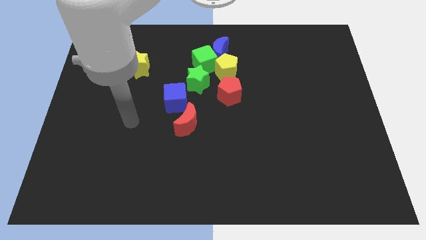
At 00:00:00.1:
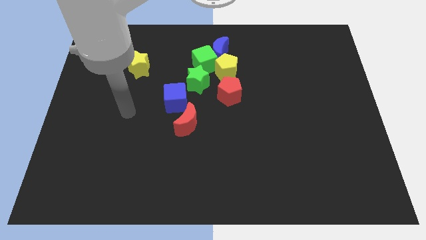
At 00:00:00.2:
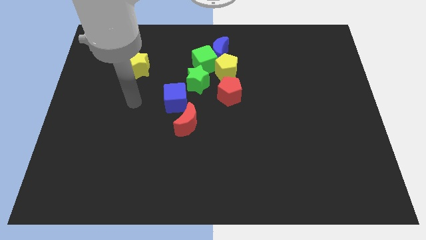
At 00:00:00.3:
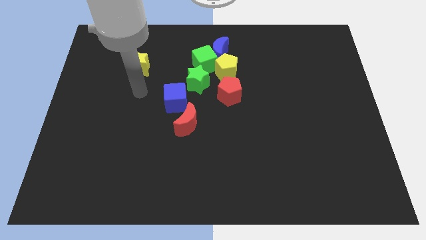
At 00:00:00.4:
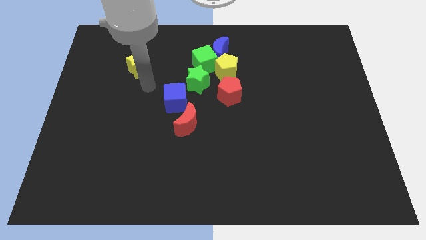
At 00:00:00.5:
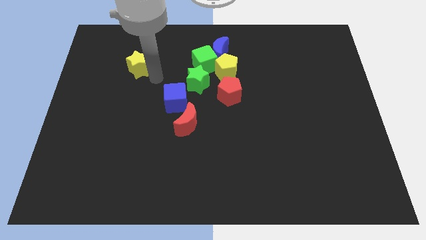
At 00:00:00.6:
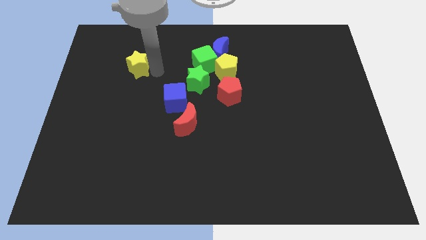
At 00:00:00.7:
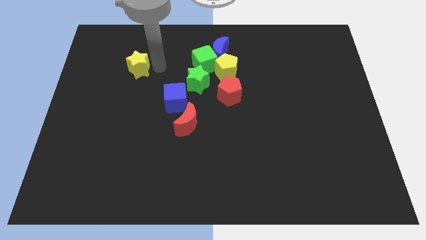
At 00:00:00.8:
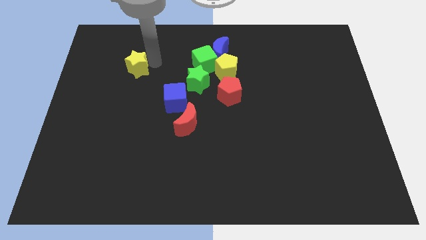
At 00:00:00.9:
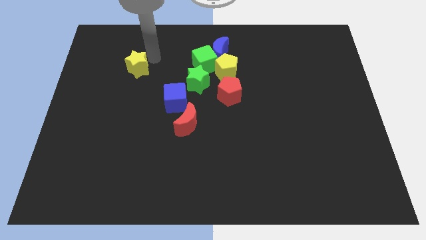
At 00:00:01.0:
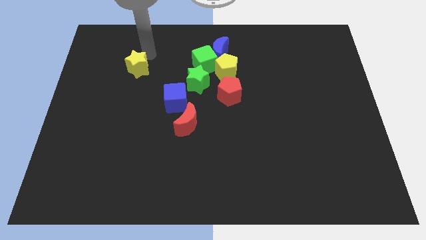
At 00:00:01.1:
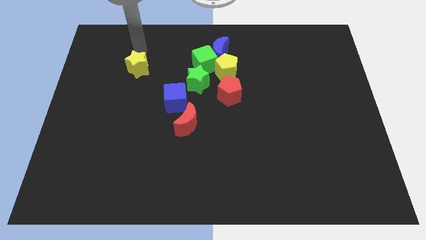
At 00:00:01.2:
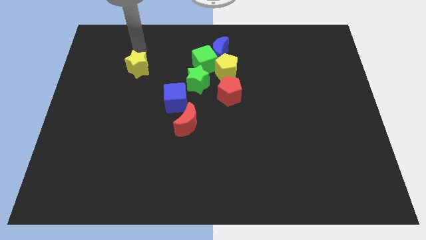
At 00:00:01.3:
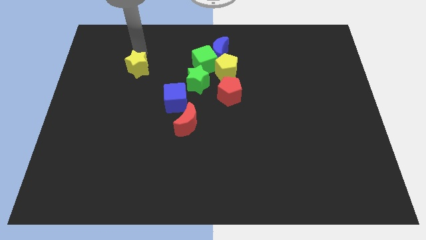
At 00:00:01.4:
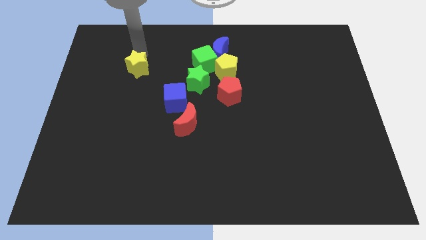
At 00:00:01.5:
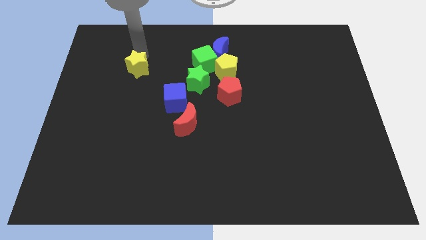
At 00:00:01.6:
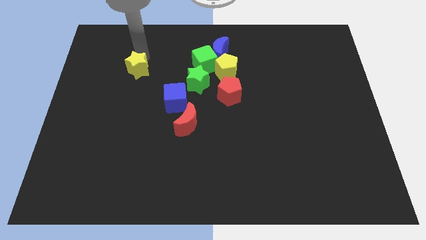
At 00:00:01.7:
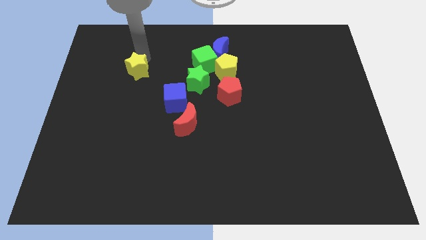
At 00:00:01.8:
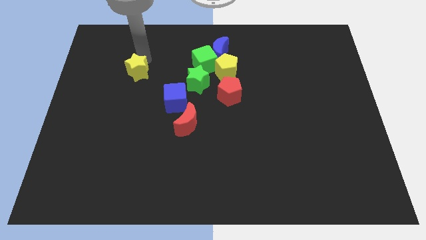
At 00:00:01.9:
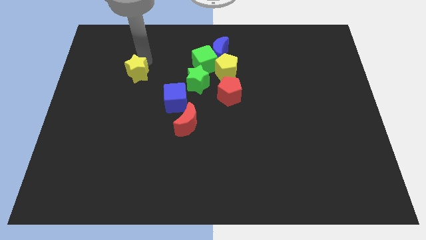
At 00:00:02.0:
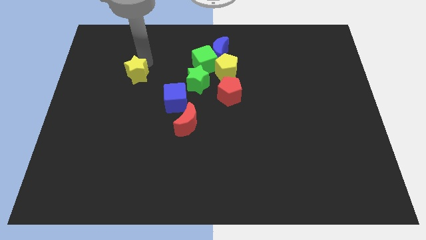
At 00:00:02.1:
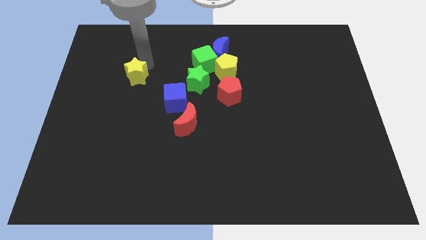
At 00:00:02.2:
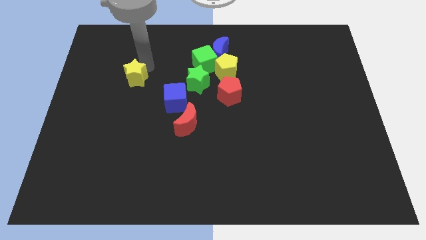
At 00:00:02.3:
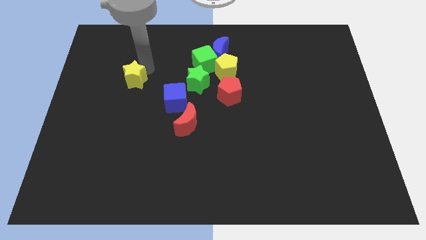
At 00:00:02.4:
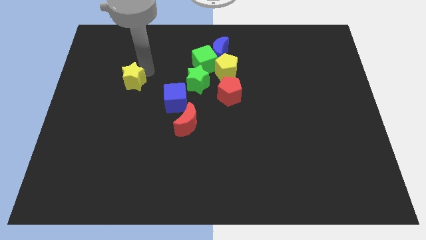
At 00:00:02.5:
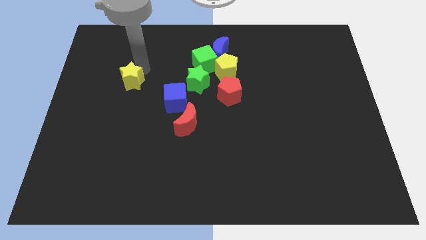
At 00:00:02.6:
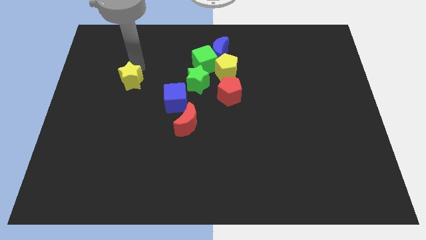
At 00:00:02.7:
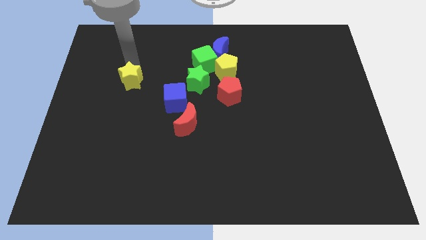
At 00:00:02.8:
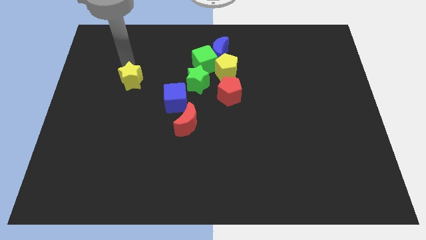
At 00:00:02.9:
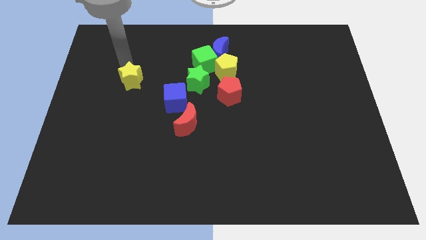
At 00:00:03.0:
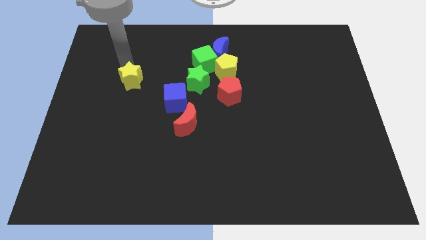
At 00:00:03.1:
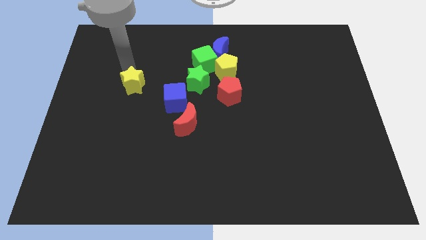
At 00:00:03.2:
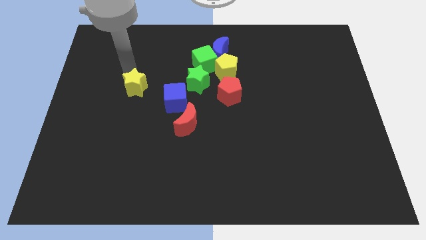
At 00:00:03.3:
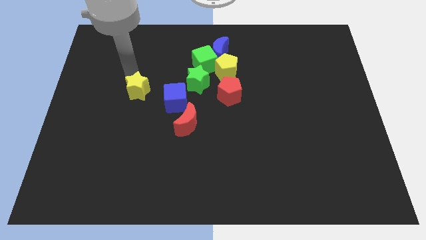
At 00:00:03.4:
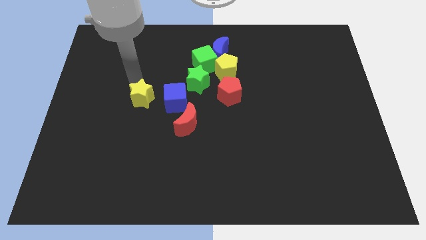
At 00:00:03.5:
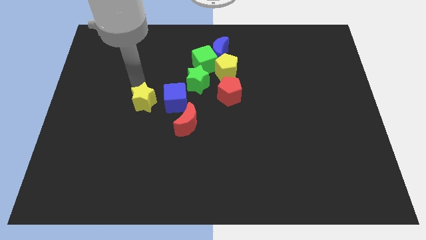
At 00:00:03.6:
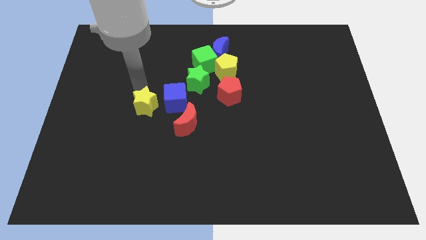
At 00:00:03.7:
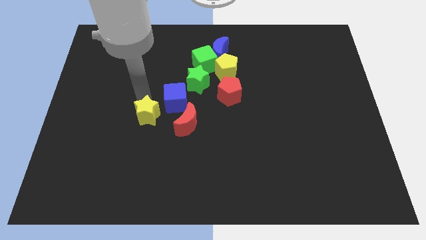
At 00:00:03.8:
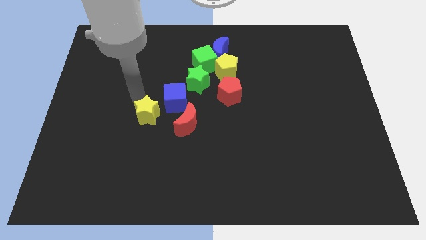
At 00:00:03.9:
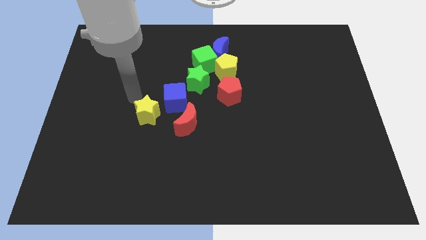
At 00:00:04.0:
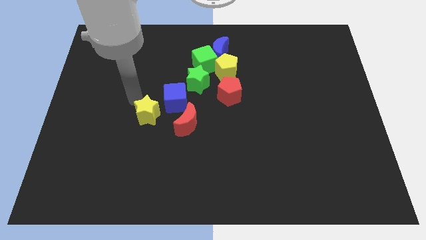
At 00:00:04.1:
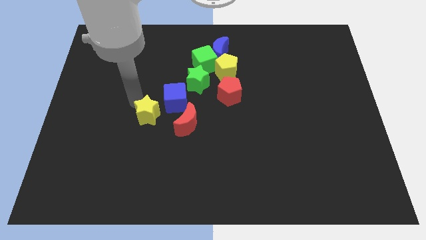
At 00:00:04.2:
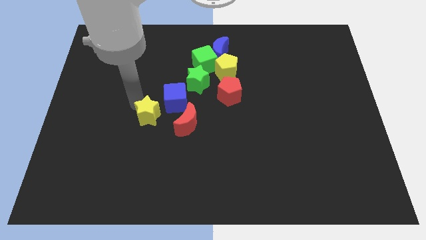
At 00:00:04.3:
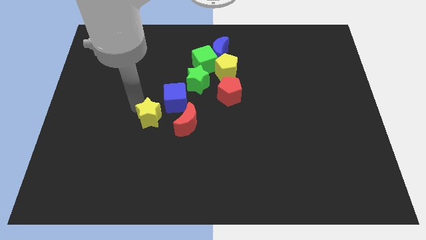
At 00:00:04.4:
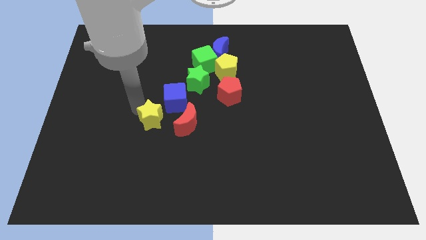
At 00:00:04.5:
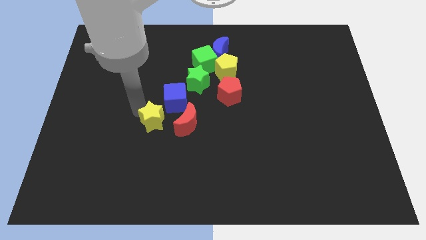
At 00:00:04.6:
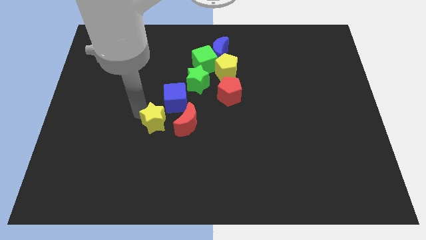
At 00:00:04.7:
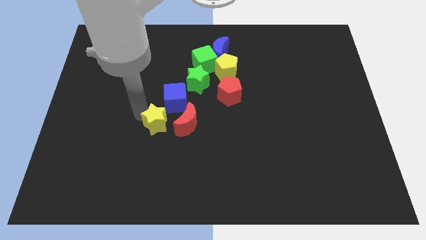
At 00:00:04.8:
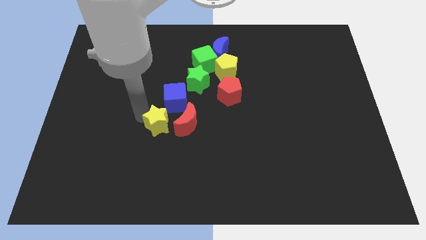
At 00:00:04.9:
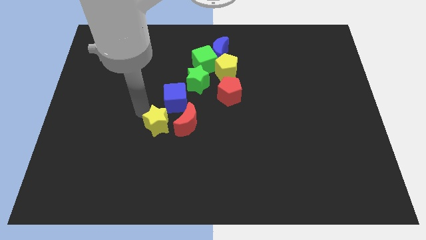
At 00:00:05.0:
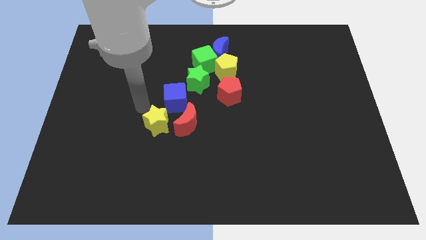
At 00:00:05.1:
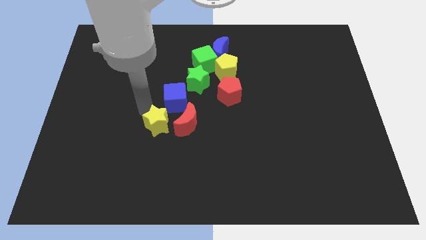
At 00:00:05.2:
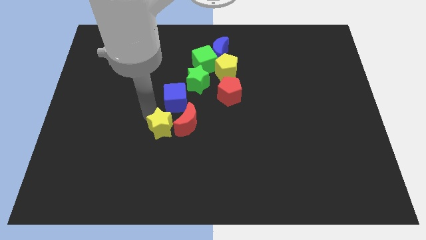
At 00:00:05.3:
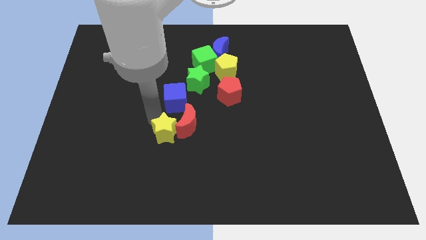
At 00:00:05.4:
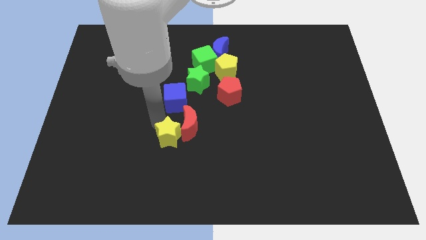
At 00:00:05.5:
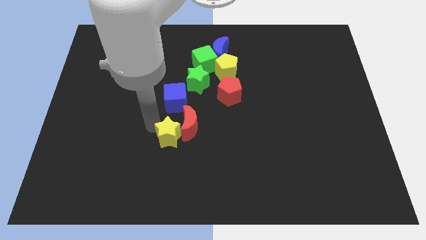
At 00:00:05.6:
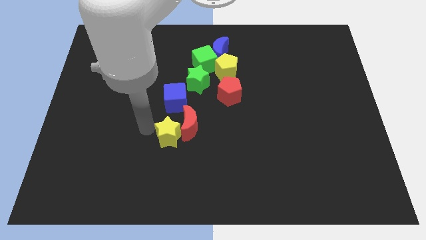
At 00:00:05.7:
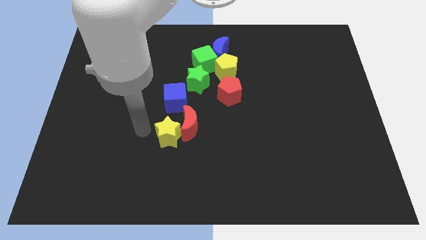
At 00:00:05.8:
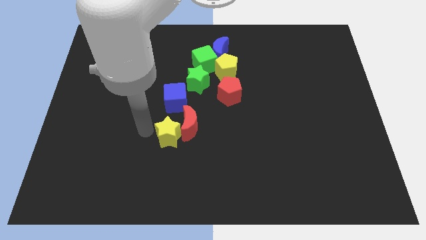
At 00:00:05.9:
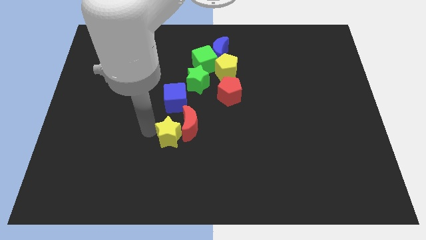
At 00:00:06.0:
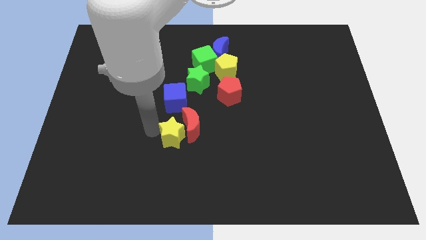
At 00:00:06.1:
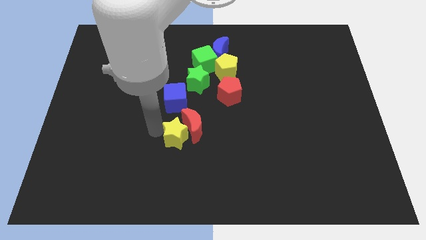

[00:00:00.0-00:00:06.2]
slide the yellow star down and then right

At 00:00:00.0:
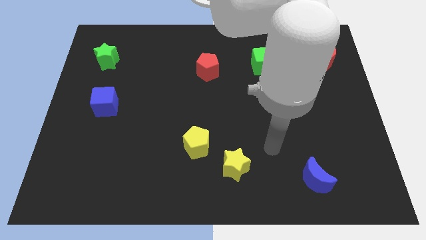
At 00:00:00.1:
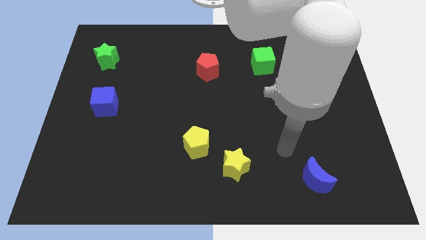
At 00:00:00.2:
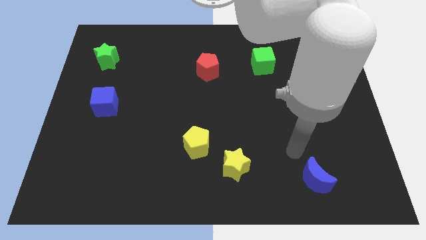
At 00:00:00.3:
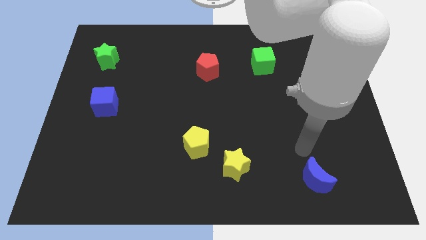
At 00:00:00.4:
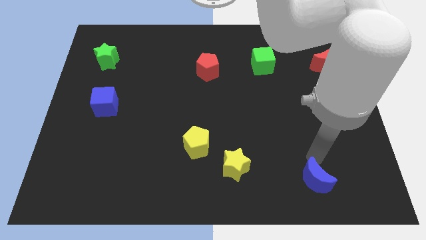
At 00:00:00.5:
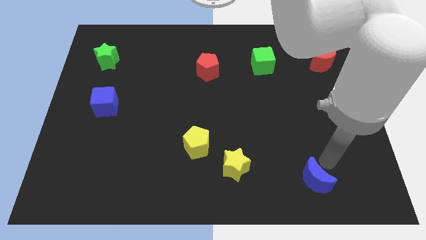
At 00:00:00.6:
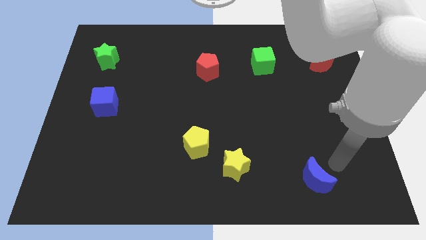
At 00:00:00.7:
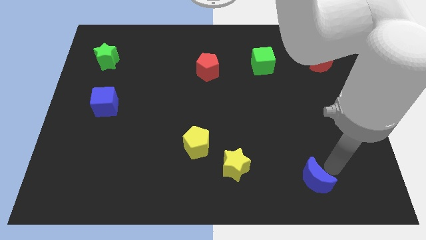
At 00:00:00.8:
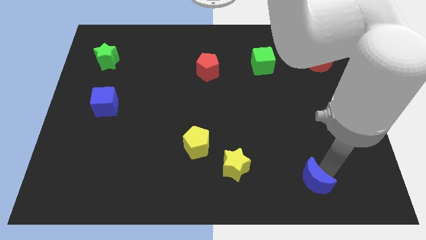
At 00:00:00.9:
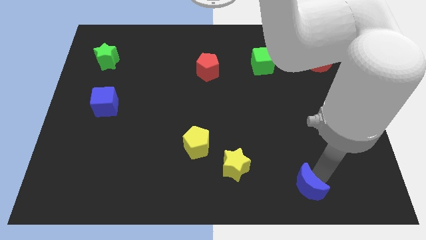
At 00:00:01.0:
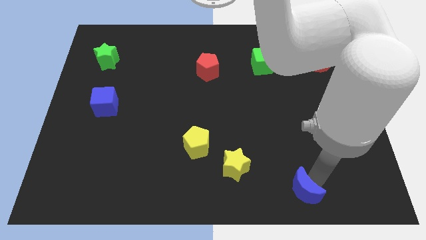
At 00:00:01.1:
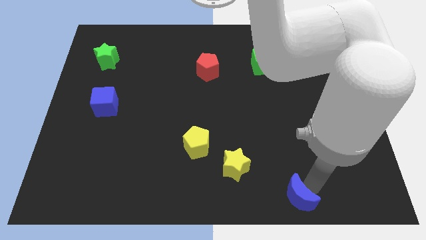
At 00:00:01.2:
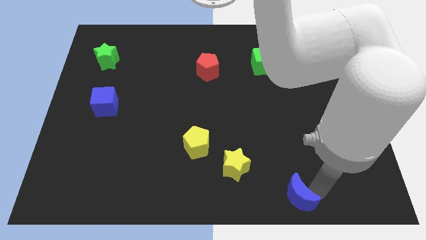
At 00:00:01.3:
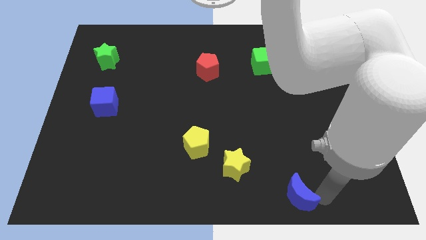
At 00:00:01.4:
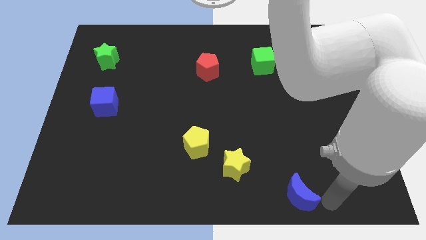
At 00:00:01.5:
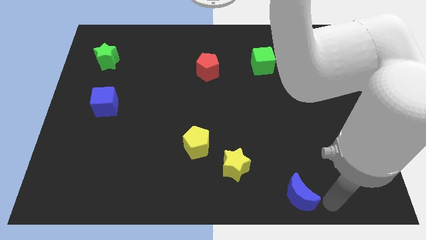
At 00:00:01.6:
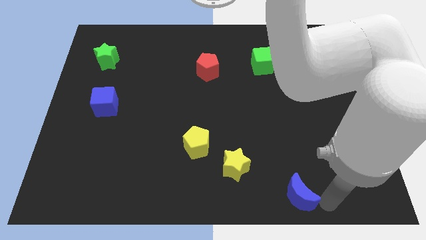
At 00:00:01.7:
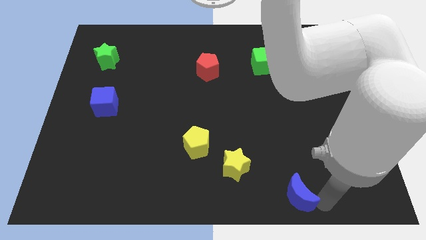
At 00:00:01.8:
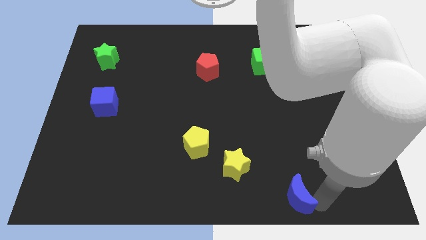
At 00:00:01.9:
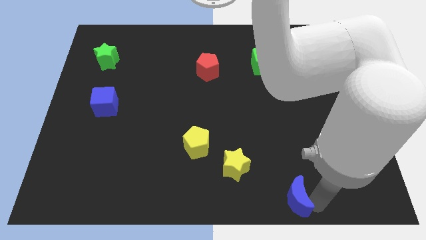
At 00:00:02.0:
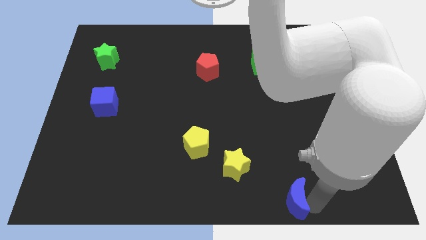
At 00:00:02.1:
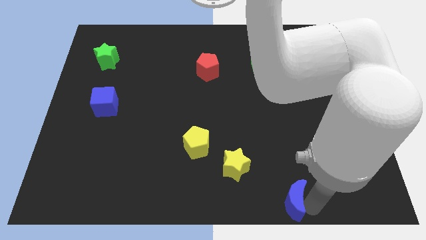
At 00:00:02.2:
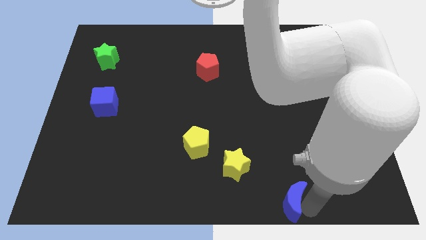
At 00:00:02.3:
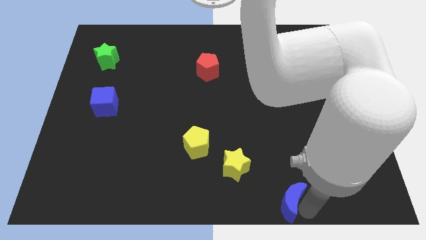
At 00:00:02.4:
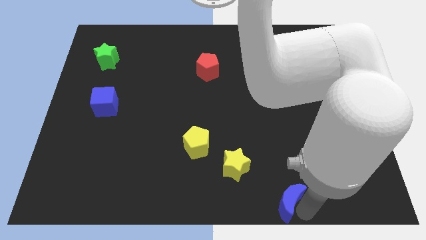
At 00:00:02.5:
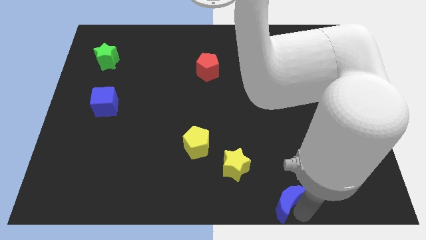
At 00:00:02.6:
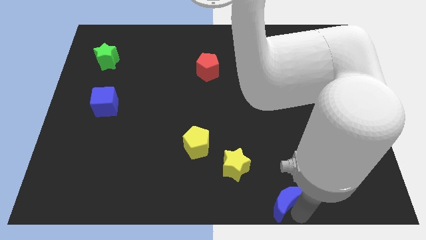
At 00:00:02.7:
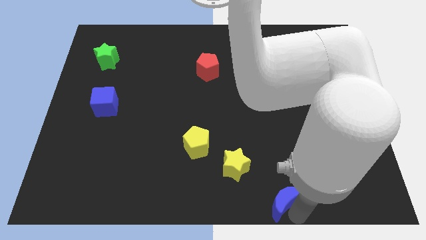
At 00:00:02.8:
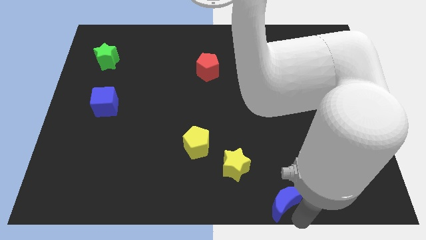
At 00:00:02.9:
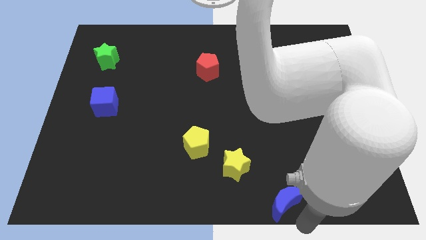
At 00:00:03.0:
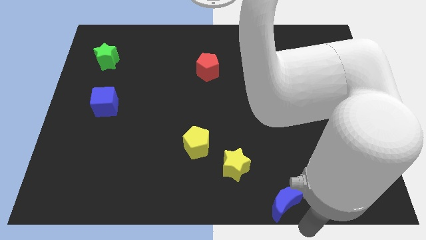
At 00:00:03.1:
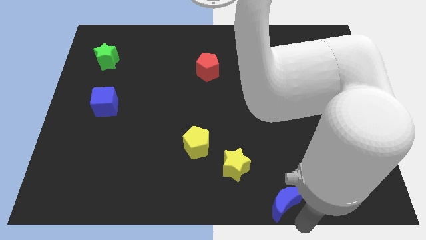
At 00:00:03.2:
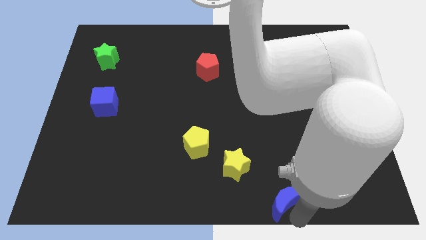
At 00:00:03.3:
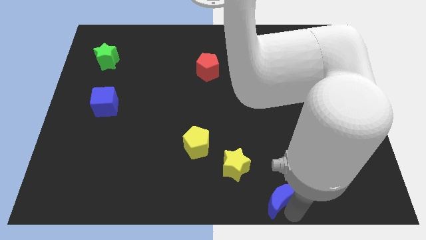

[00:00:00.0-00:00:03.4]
slide the blue moon left a bit
